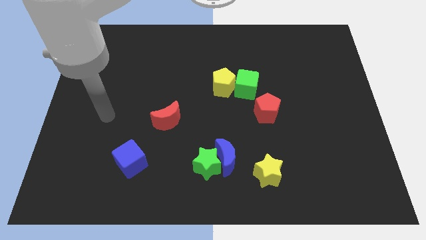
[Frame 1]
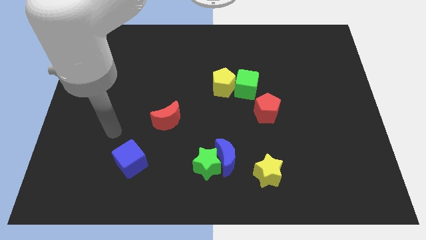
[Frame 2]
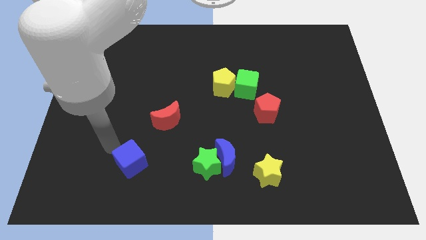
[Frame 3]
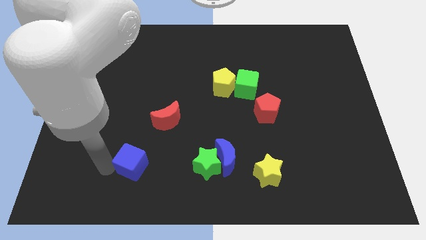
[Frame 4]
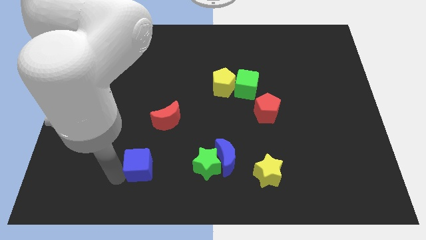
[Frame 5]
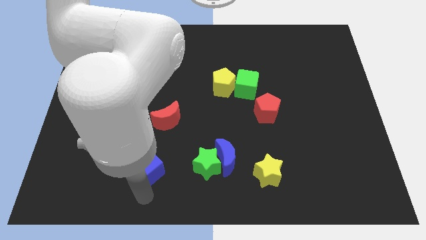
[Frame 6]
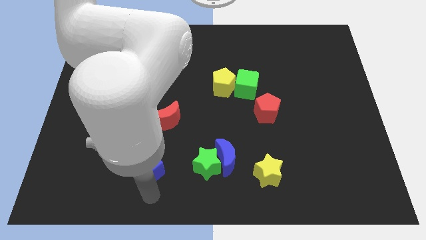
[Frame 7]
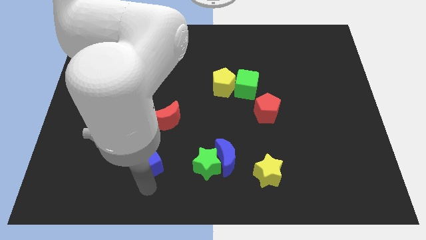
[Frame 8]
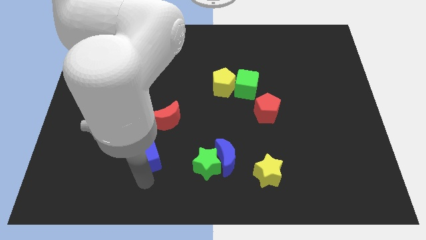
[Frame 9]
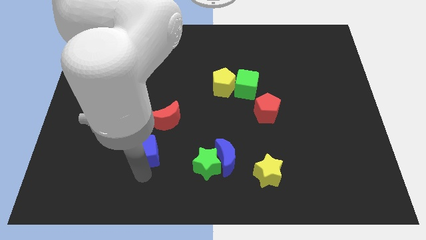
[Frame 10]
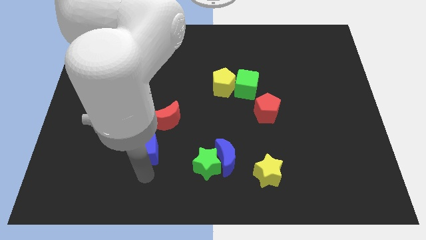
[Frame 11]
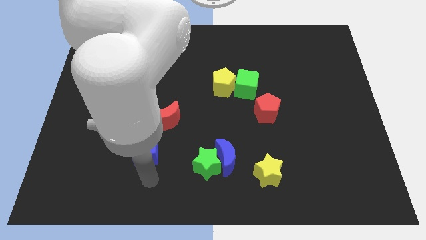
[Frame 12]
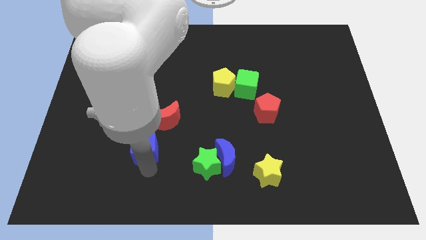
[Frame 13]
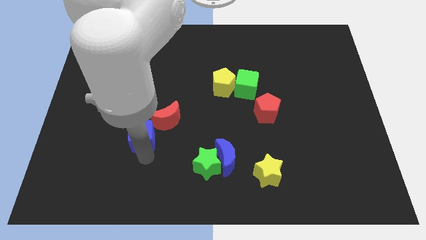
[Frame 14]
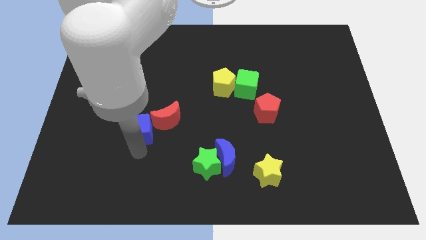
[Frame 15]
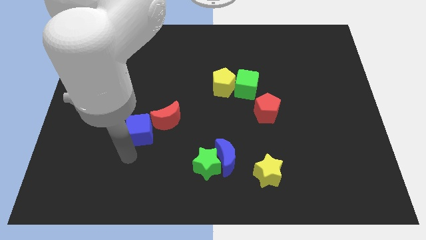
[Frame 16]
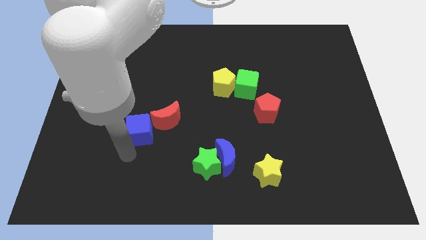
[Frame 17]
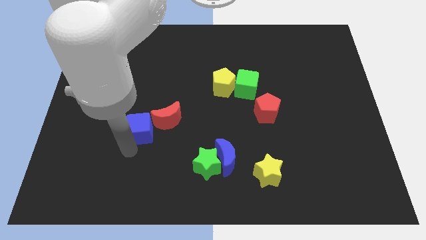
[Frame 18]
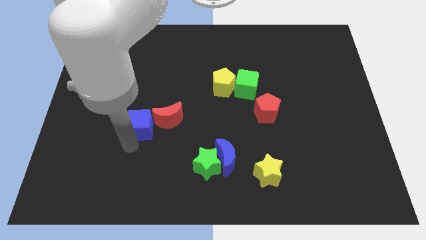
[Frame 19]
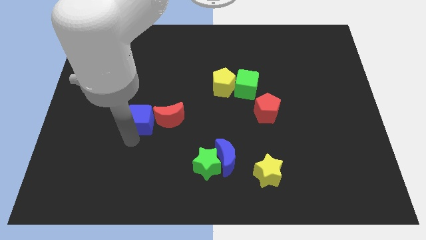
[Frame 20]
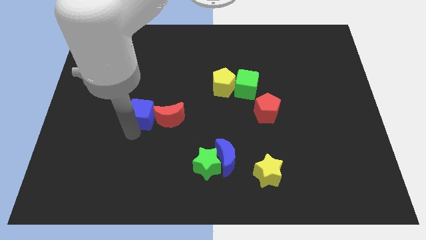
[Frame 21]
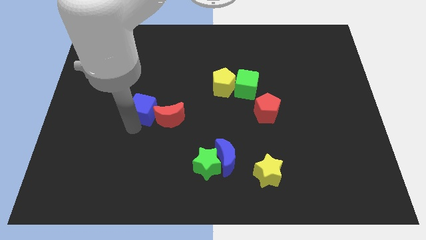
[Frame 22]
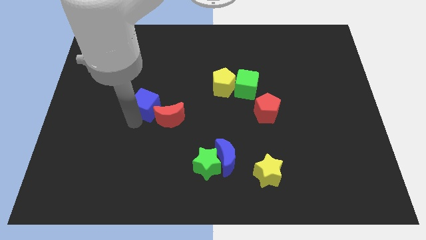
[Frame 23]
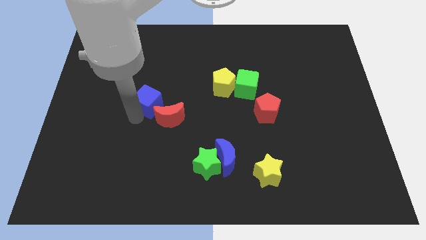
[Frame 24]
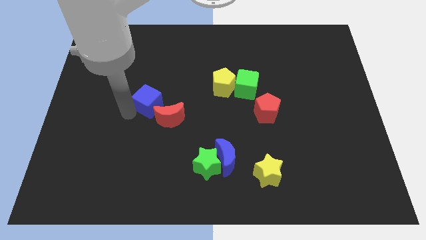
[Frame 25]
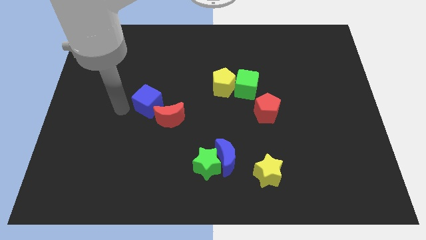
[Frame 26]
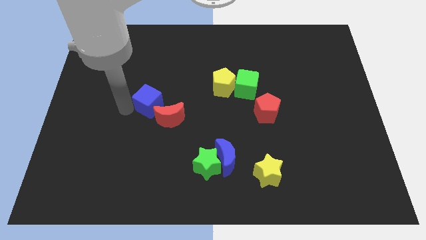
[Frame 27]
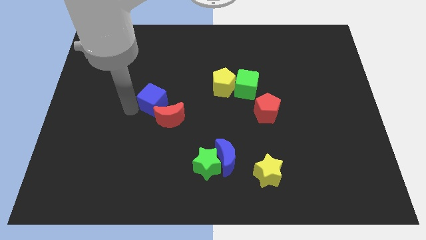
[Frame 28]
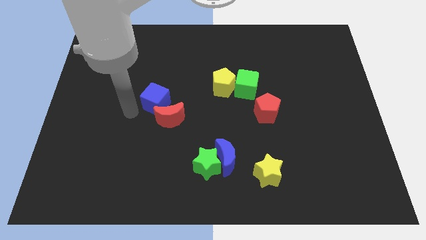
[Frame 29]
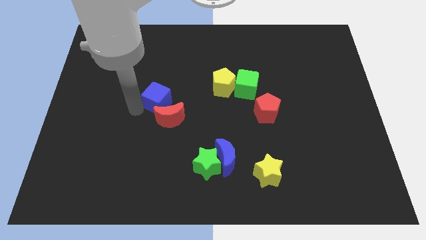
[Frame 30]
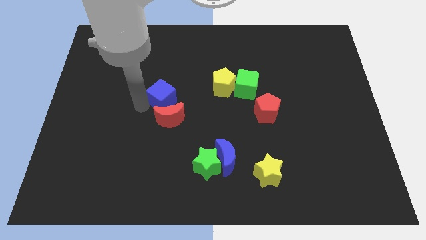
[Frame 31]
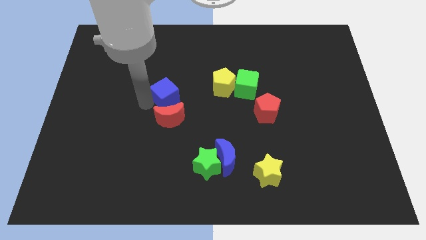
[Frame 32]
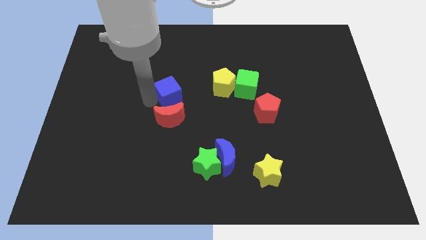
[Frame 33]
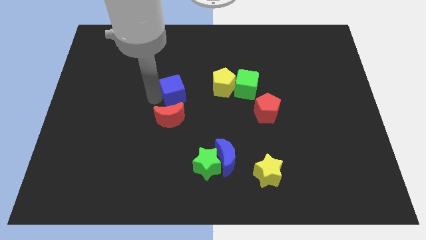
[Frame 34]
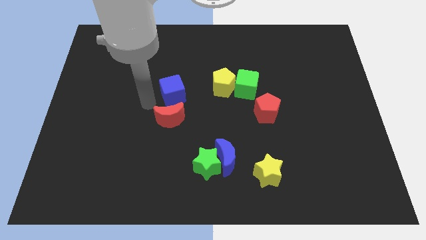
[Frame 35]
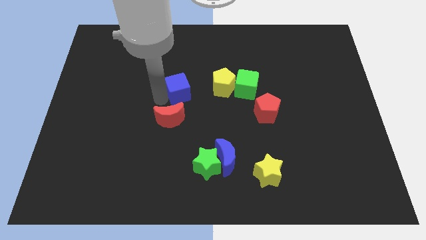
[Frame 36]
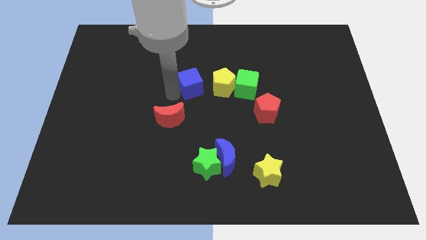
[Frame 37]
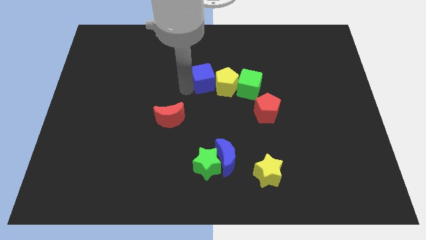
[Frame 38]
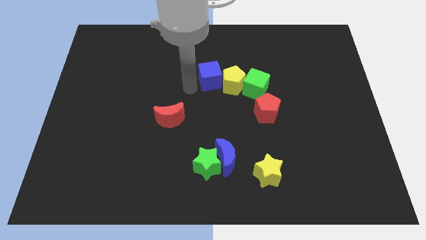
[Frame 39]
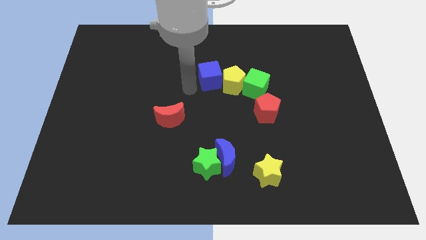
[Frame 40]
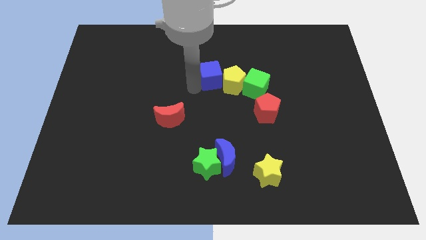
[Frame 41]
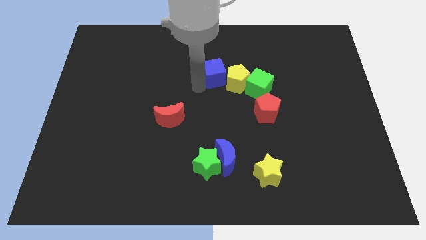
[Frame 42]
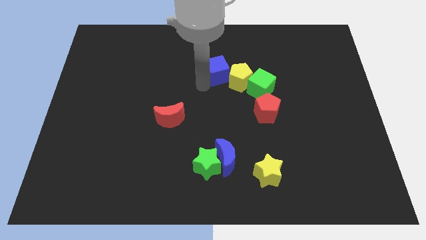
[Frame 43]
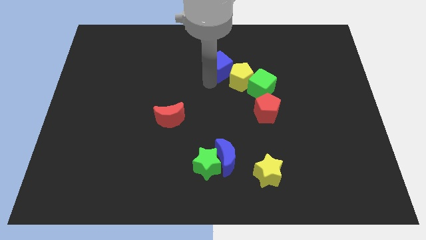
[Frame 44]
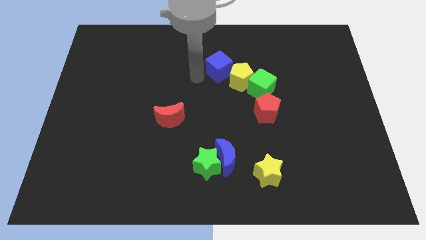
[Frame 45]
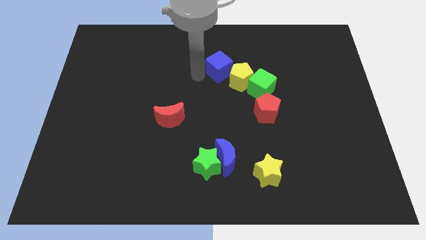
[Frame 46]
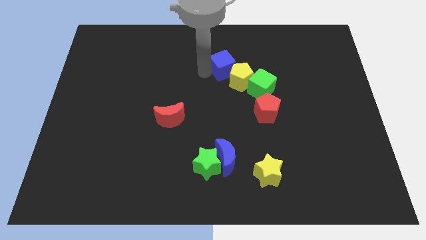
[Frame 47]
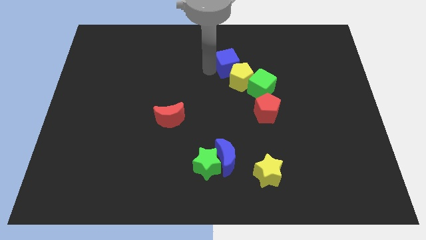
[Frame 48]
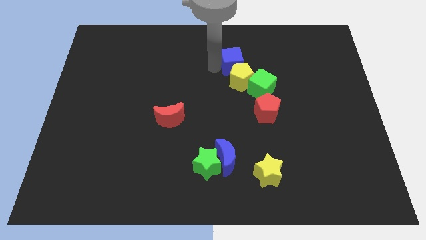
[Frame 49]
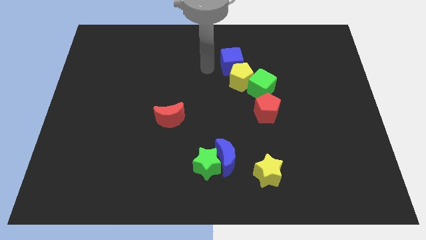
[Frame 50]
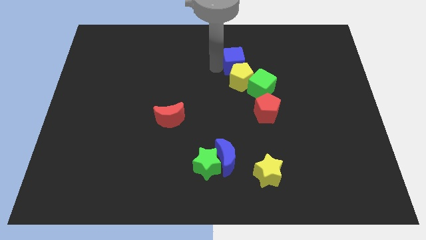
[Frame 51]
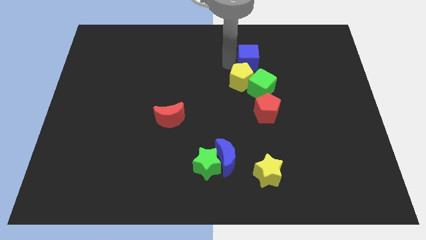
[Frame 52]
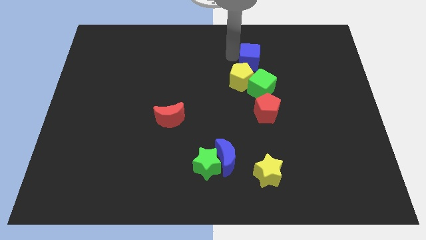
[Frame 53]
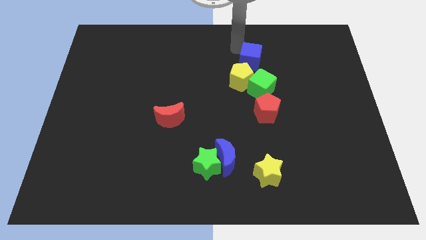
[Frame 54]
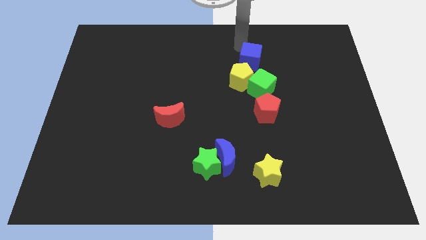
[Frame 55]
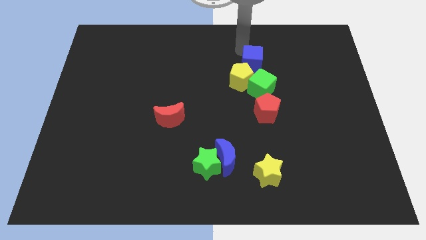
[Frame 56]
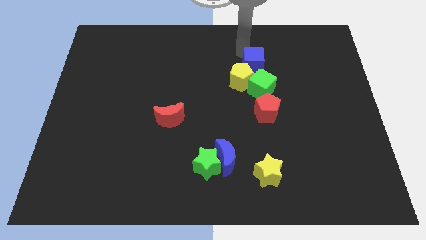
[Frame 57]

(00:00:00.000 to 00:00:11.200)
put the blue cube above the red pentagon

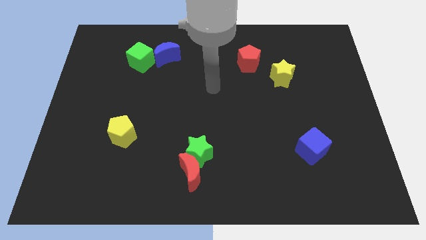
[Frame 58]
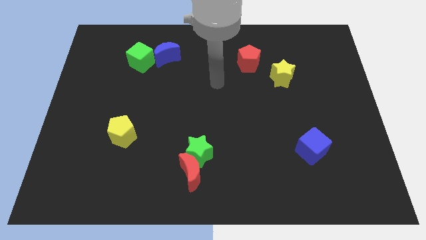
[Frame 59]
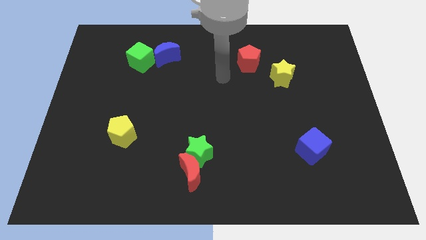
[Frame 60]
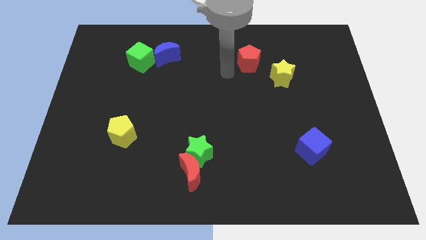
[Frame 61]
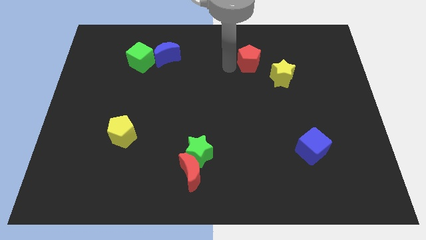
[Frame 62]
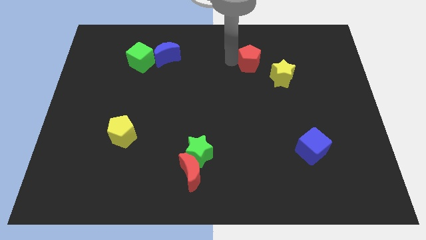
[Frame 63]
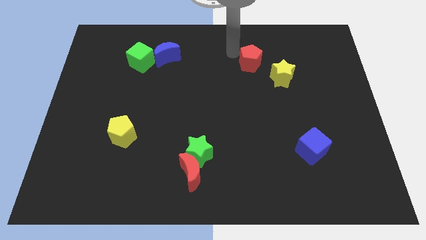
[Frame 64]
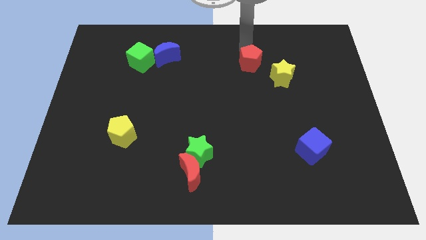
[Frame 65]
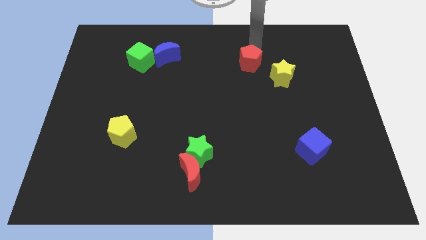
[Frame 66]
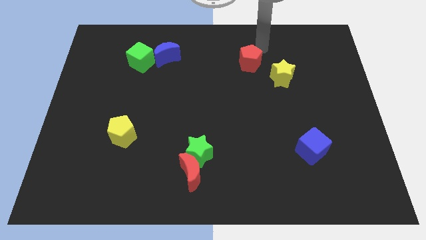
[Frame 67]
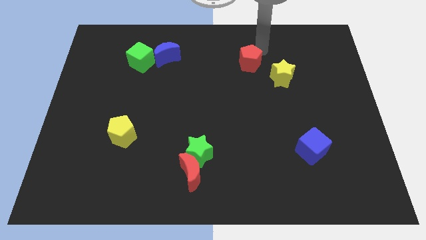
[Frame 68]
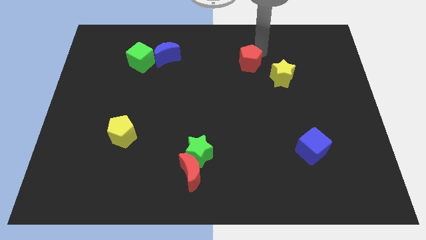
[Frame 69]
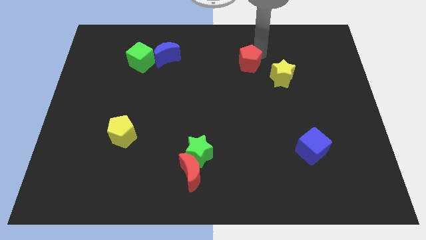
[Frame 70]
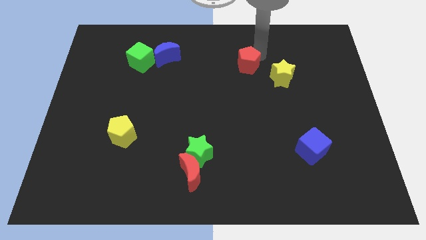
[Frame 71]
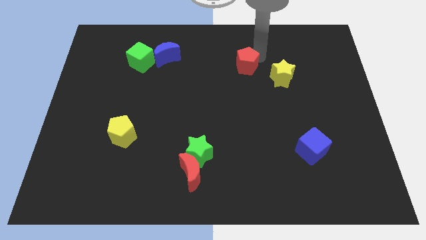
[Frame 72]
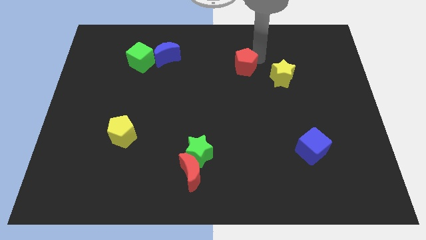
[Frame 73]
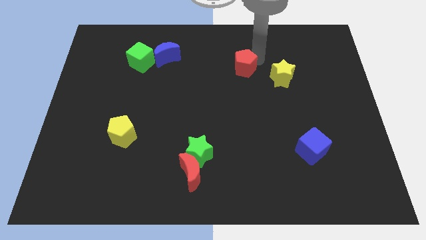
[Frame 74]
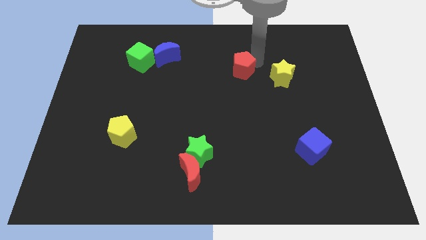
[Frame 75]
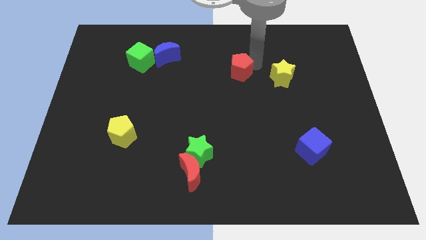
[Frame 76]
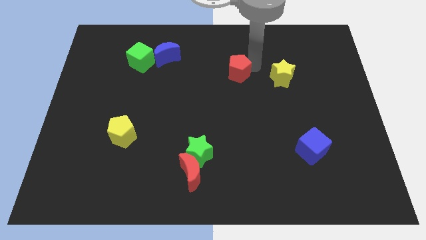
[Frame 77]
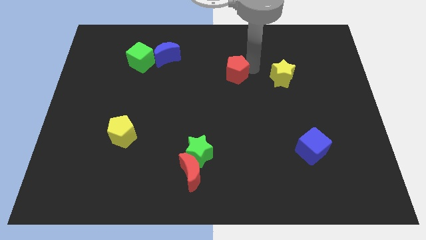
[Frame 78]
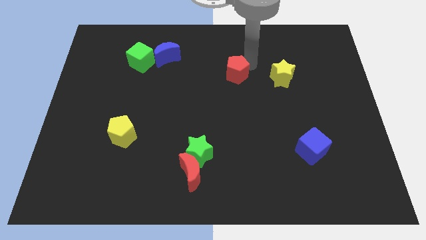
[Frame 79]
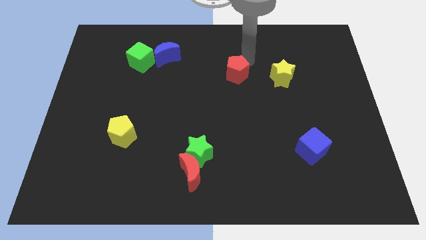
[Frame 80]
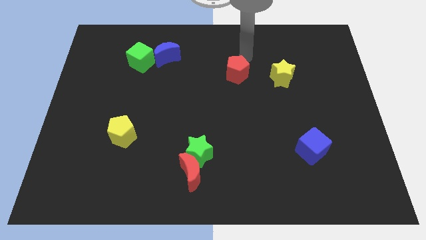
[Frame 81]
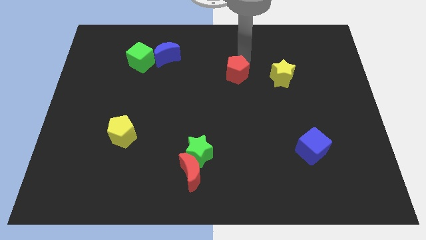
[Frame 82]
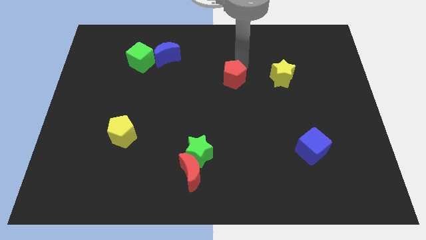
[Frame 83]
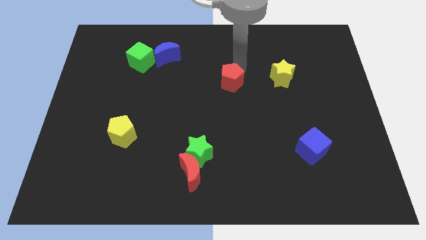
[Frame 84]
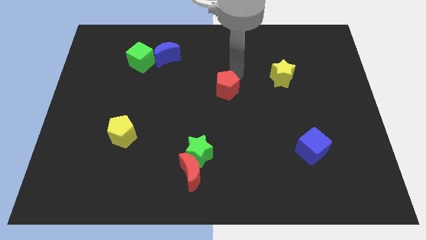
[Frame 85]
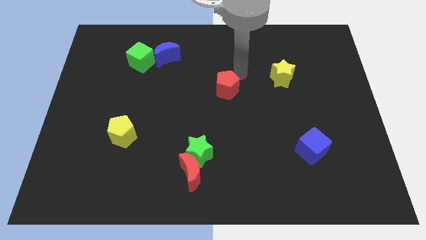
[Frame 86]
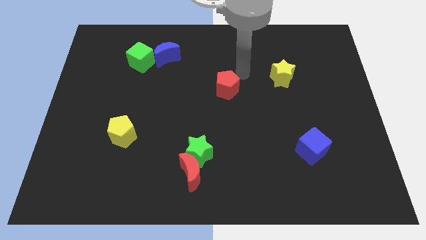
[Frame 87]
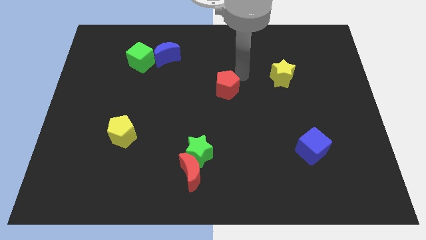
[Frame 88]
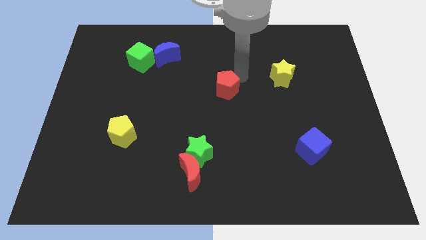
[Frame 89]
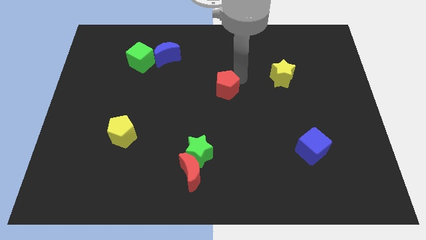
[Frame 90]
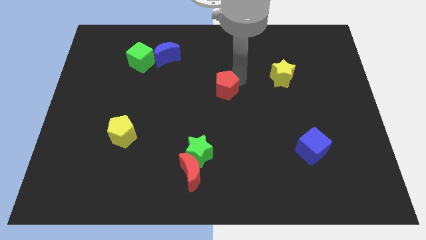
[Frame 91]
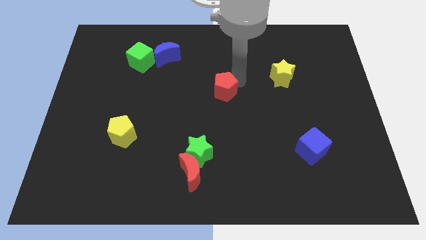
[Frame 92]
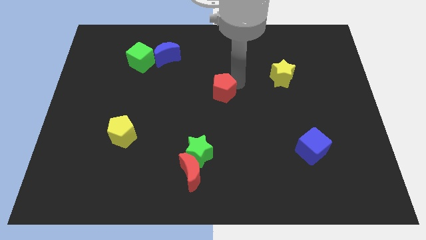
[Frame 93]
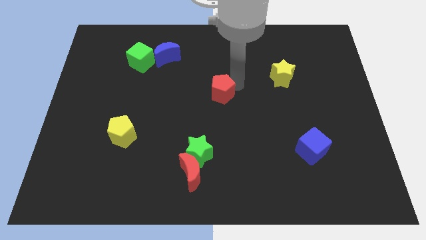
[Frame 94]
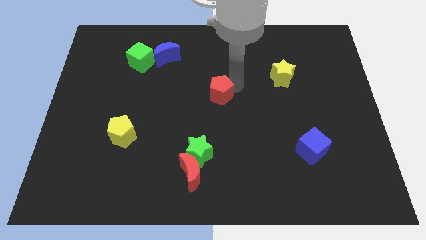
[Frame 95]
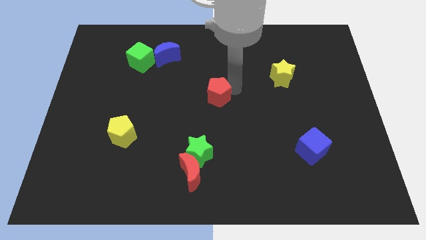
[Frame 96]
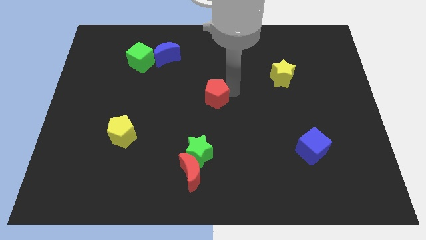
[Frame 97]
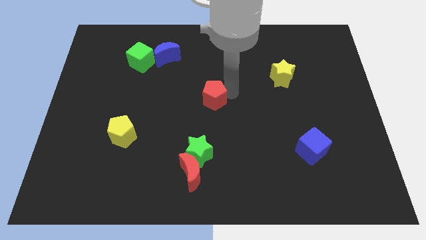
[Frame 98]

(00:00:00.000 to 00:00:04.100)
put the red pentagon above the green star
